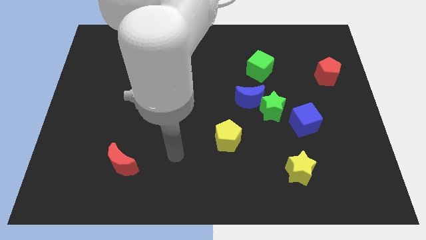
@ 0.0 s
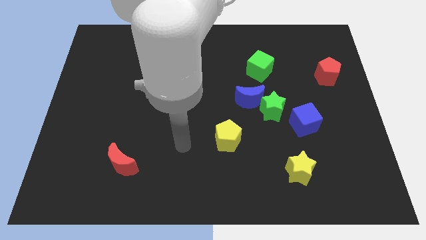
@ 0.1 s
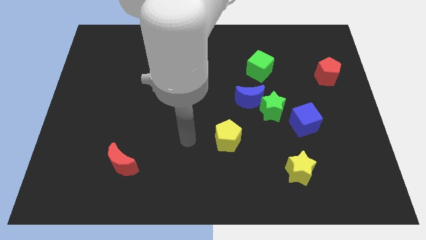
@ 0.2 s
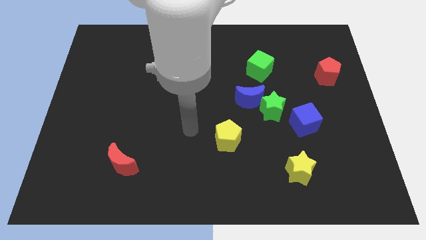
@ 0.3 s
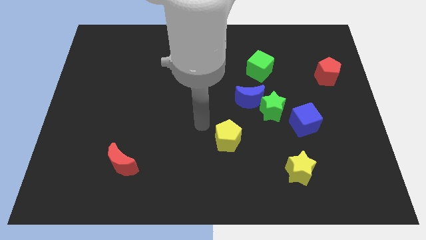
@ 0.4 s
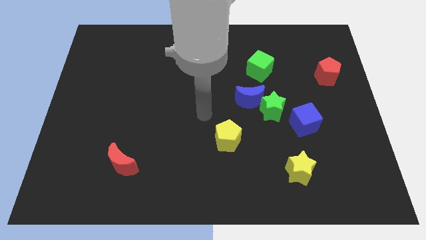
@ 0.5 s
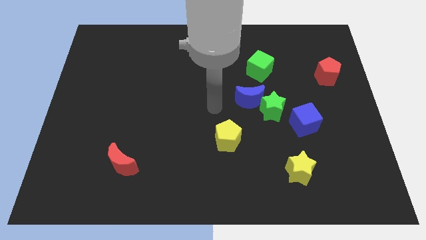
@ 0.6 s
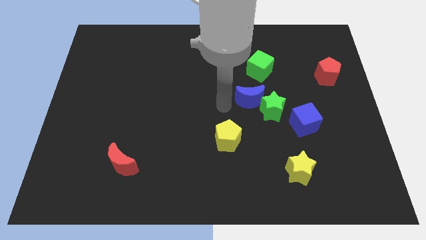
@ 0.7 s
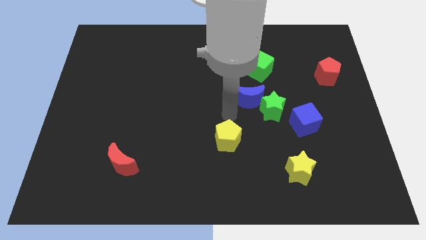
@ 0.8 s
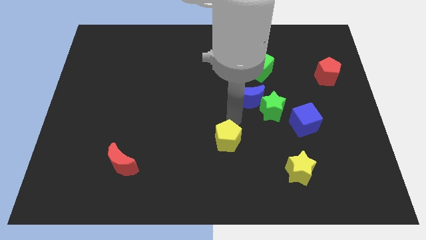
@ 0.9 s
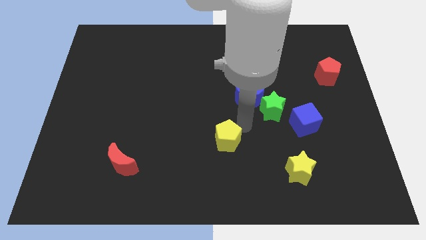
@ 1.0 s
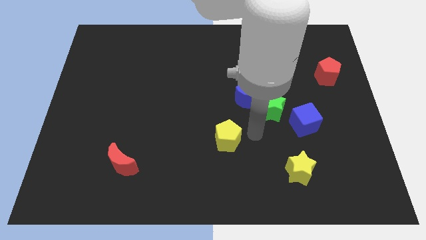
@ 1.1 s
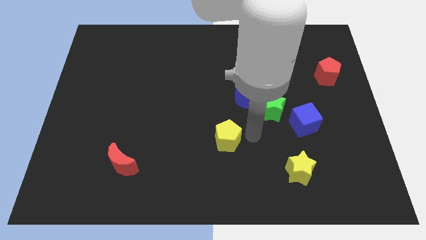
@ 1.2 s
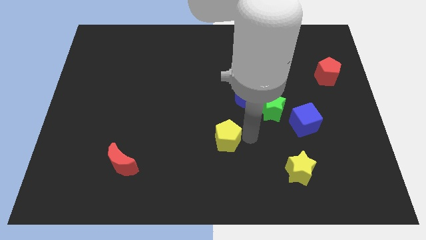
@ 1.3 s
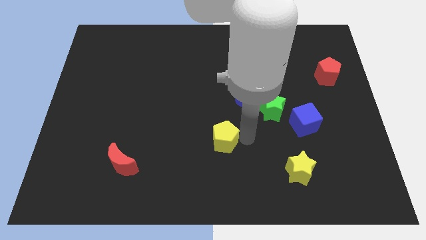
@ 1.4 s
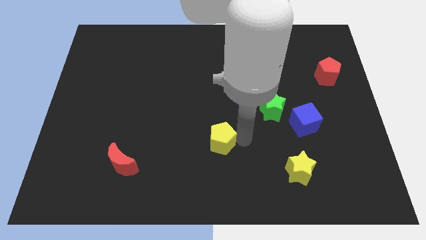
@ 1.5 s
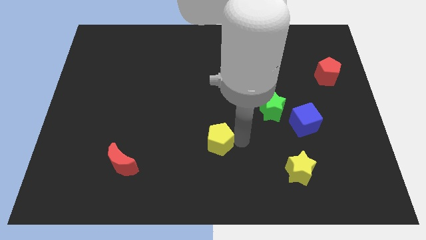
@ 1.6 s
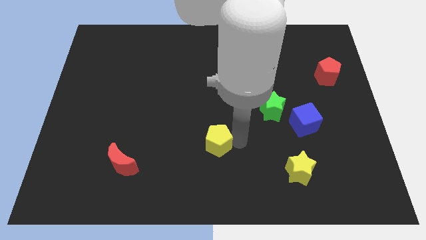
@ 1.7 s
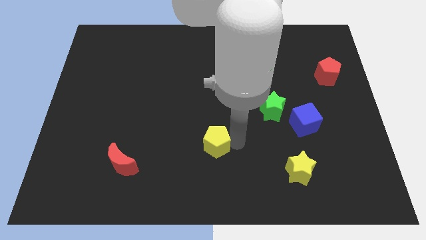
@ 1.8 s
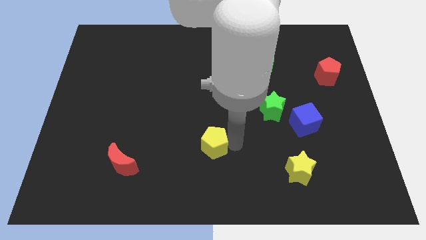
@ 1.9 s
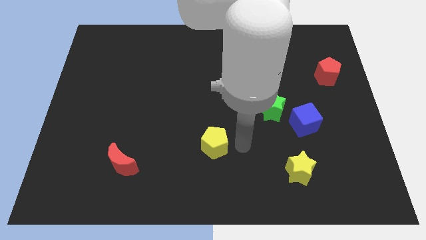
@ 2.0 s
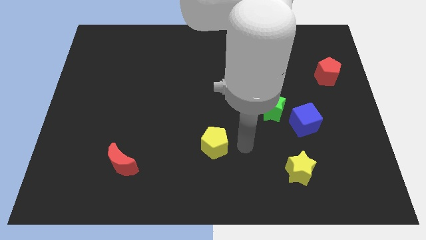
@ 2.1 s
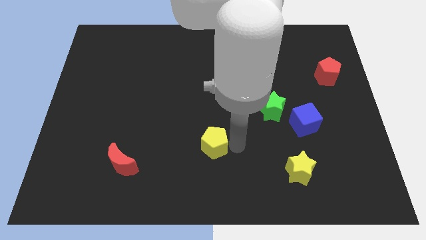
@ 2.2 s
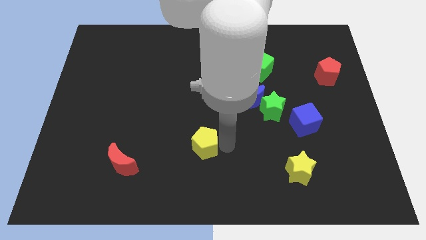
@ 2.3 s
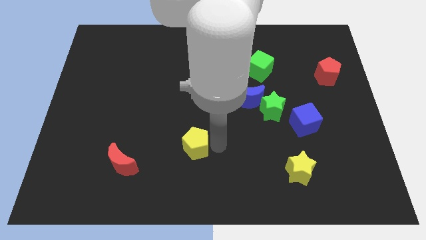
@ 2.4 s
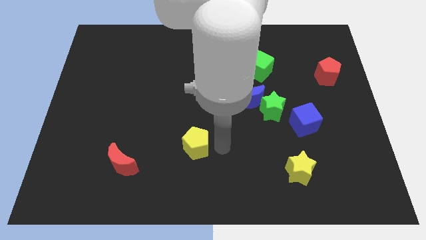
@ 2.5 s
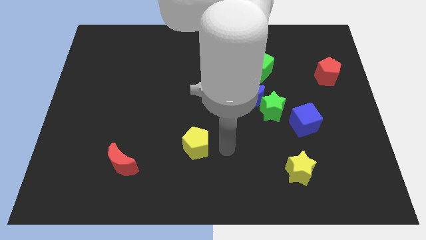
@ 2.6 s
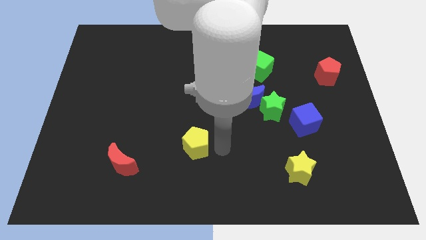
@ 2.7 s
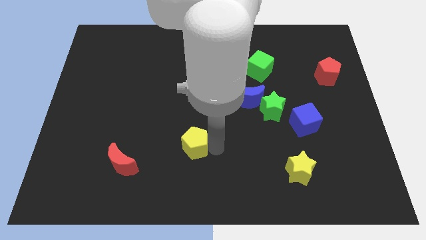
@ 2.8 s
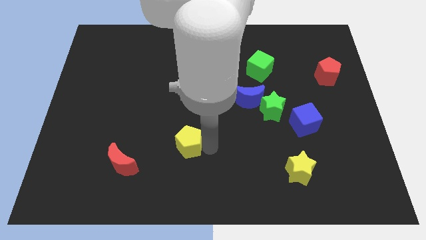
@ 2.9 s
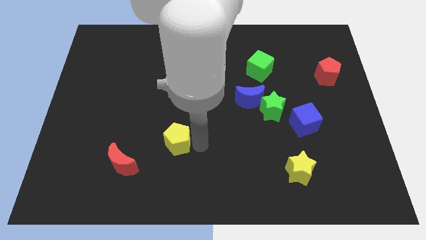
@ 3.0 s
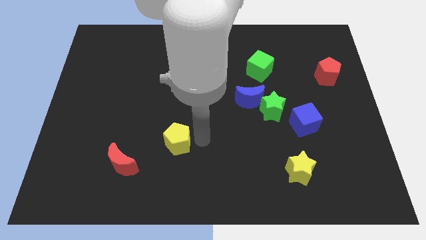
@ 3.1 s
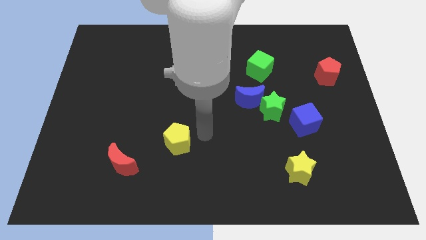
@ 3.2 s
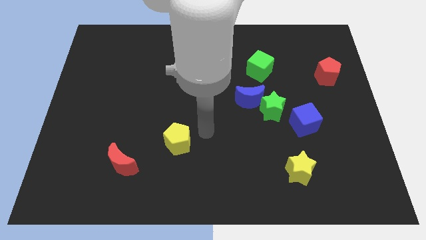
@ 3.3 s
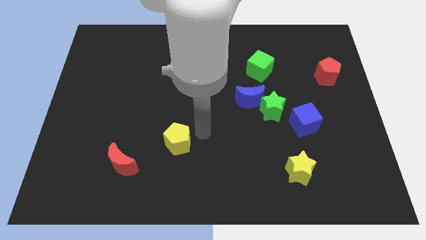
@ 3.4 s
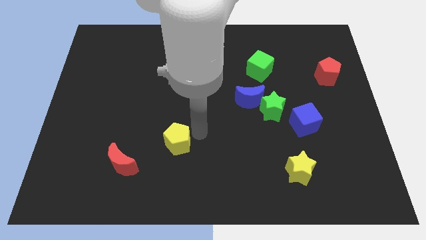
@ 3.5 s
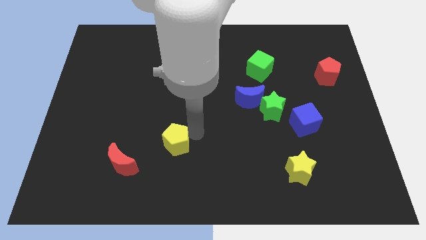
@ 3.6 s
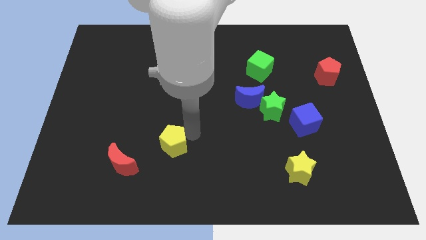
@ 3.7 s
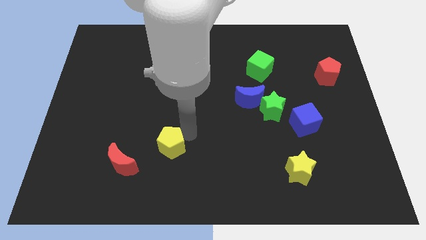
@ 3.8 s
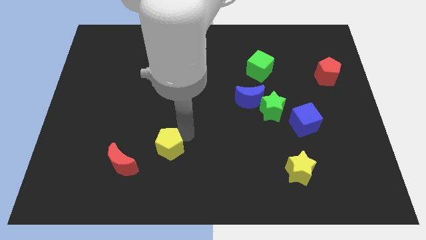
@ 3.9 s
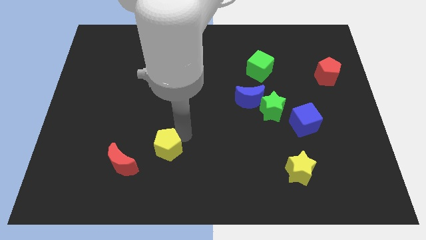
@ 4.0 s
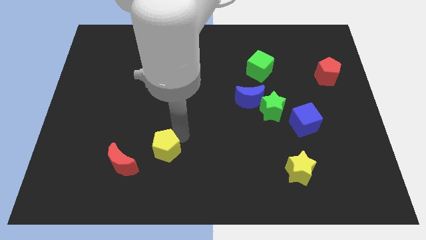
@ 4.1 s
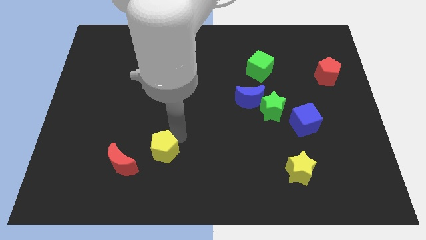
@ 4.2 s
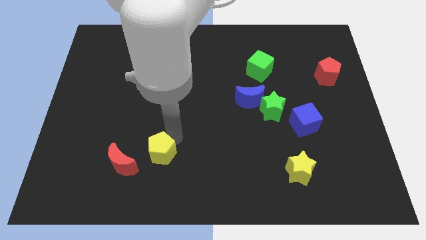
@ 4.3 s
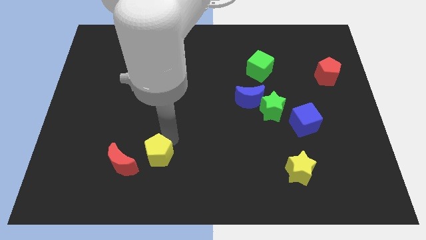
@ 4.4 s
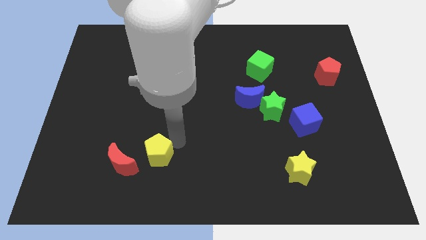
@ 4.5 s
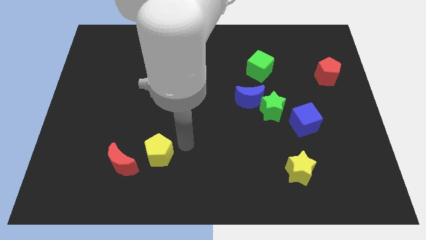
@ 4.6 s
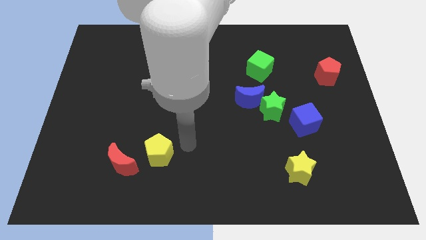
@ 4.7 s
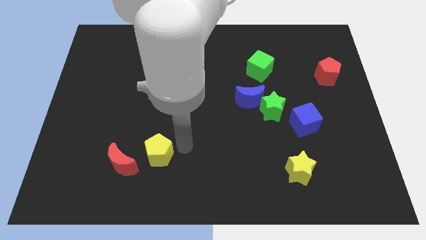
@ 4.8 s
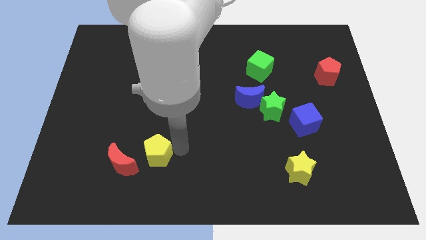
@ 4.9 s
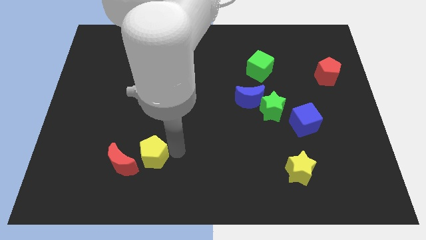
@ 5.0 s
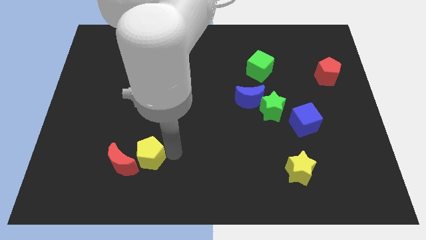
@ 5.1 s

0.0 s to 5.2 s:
slide the yellow pentagon towards the red moon

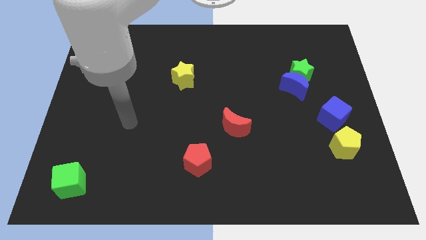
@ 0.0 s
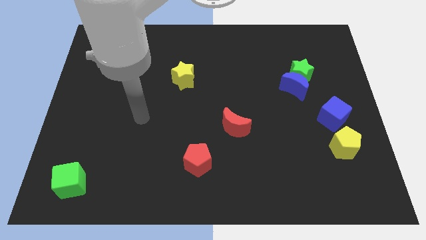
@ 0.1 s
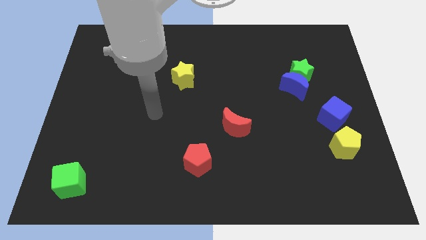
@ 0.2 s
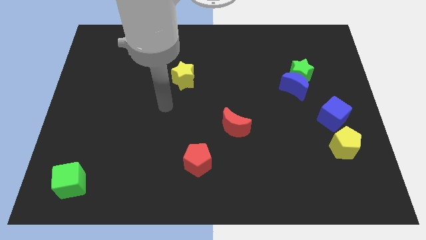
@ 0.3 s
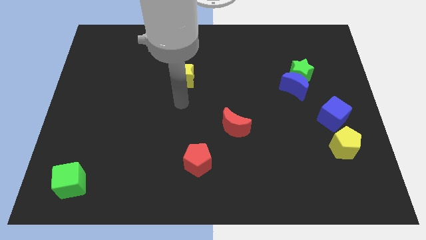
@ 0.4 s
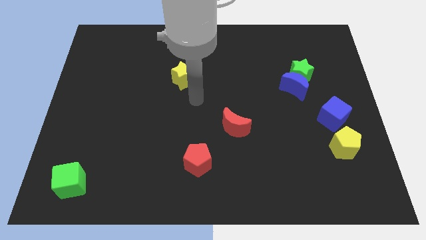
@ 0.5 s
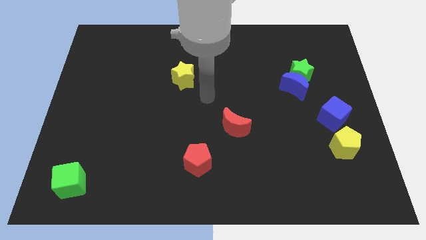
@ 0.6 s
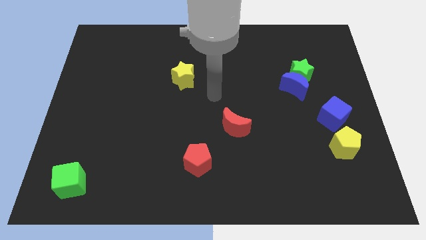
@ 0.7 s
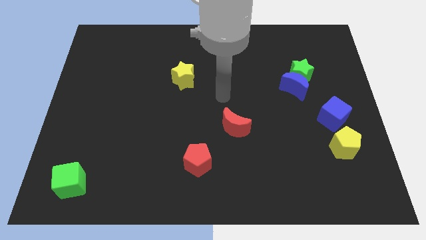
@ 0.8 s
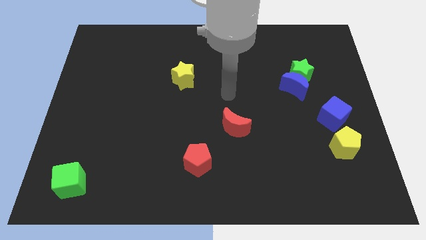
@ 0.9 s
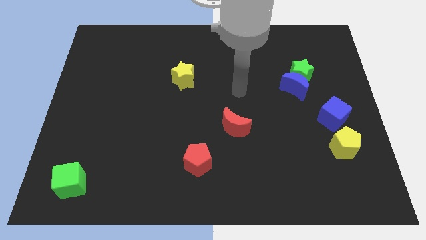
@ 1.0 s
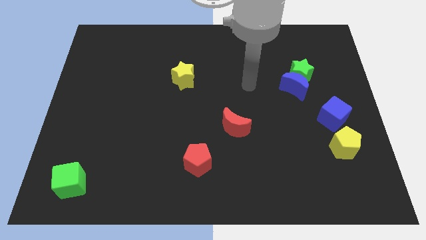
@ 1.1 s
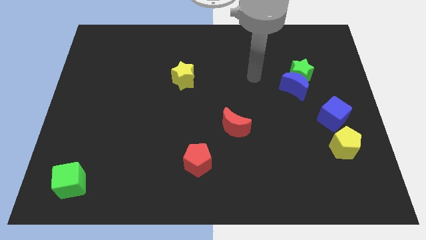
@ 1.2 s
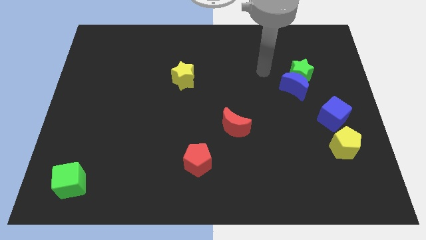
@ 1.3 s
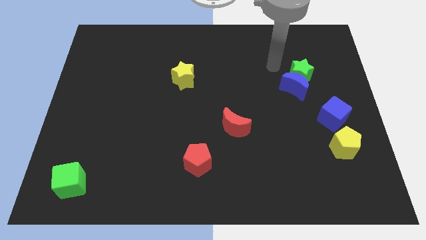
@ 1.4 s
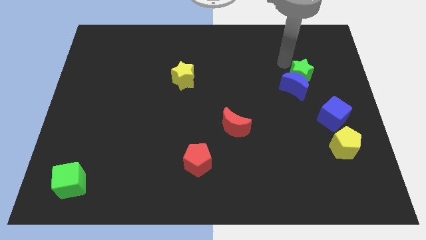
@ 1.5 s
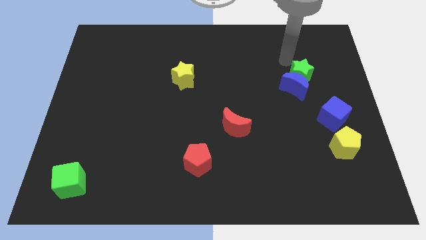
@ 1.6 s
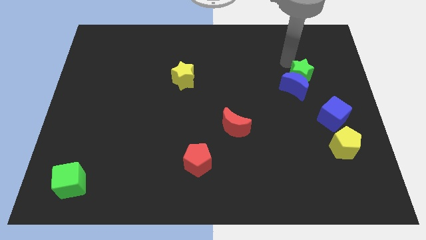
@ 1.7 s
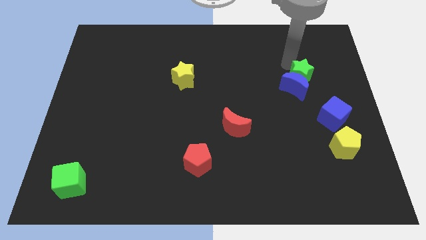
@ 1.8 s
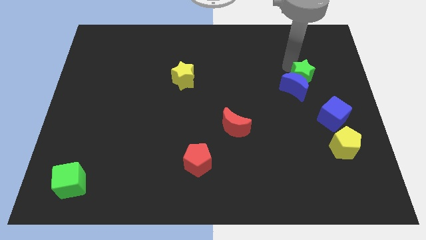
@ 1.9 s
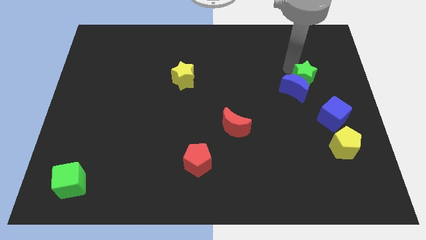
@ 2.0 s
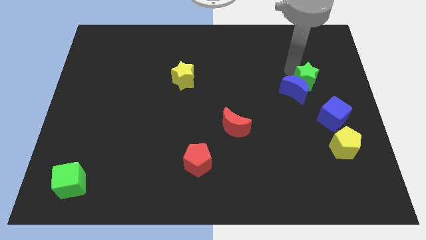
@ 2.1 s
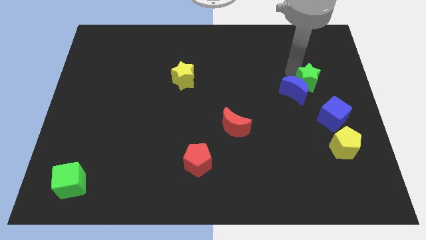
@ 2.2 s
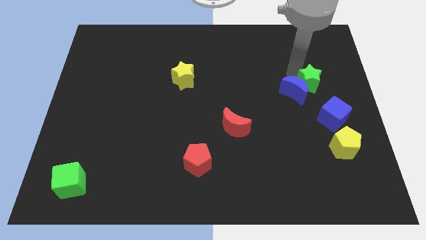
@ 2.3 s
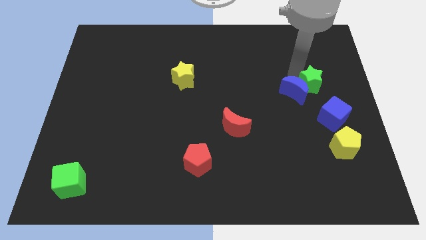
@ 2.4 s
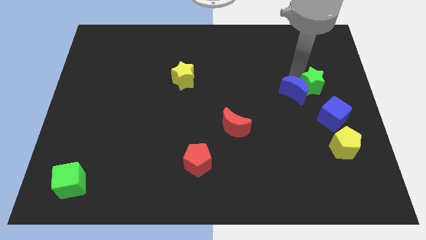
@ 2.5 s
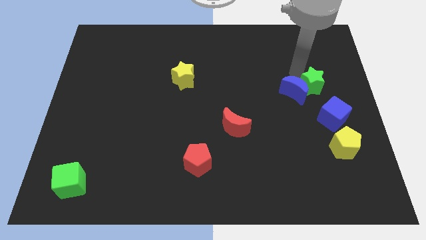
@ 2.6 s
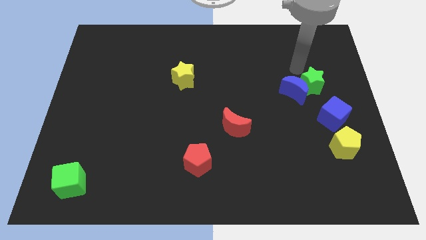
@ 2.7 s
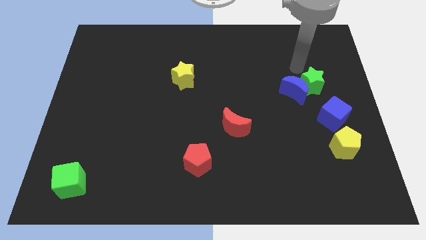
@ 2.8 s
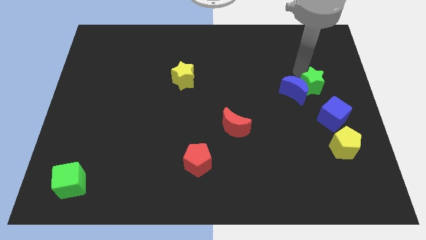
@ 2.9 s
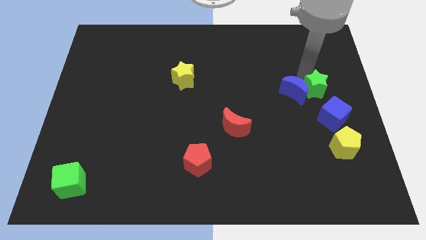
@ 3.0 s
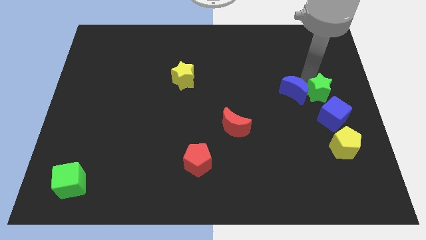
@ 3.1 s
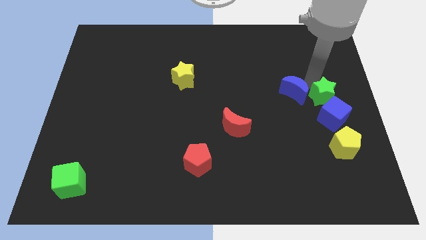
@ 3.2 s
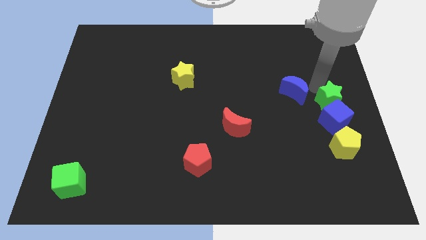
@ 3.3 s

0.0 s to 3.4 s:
slide the green star to the blue cube
